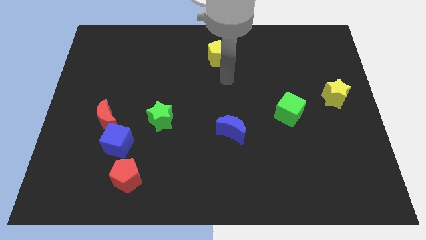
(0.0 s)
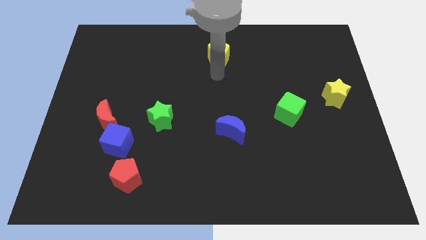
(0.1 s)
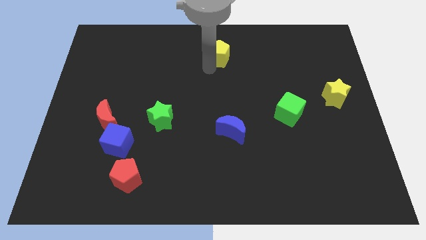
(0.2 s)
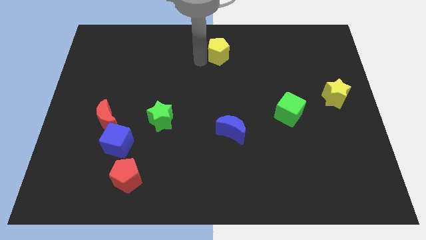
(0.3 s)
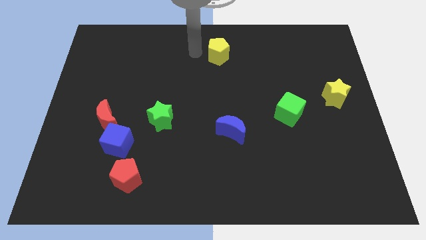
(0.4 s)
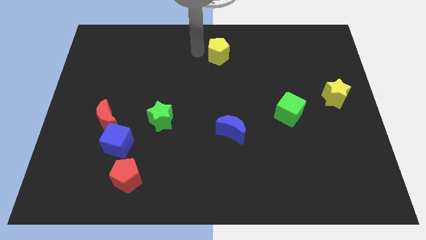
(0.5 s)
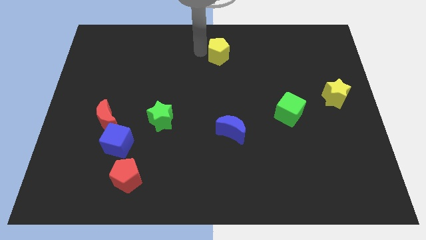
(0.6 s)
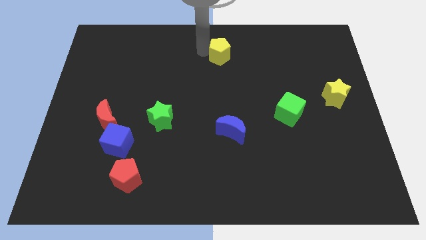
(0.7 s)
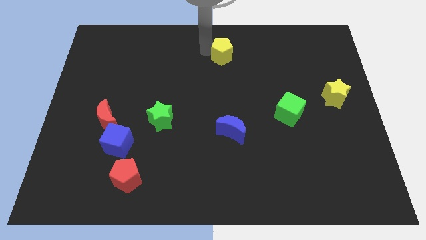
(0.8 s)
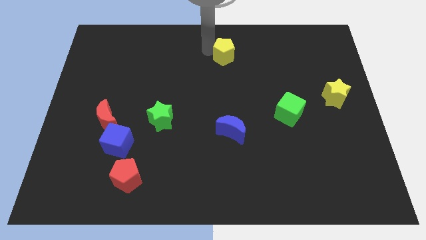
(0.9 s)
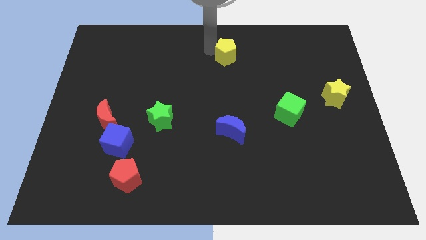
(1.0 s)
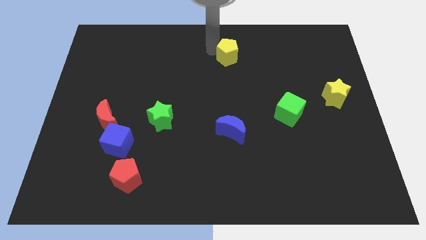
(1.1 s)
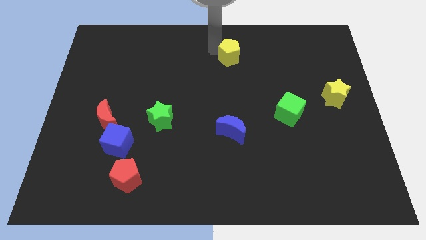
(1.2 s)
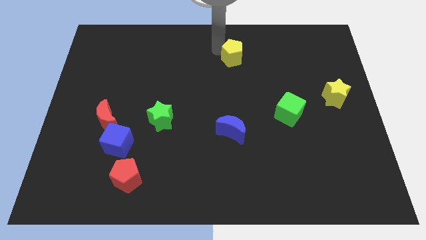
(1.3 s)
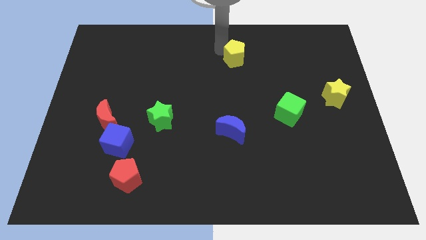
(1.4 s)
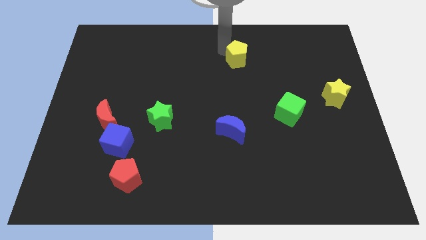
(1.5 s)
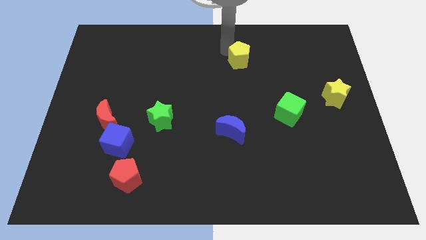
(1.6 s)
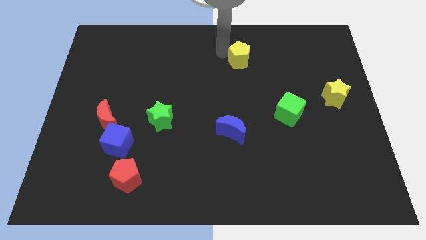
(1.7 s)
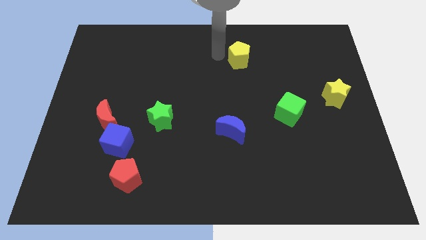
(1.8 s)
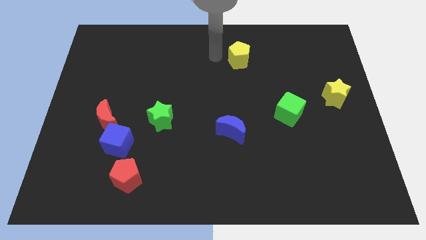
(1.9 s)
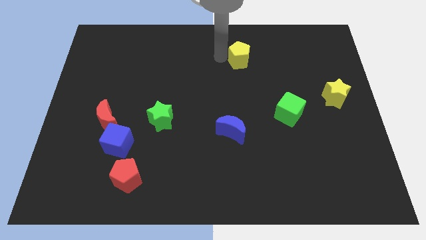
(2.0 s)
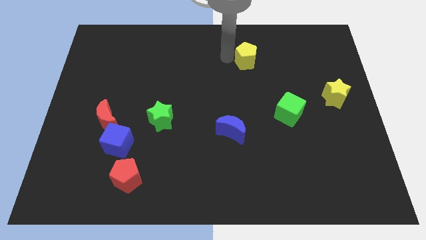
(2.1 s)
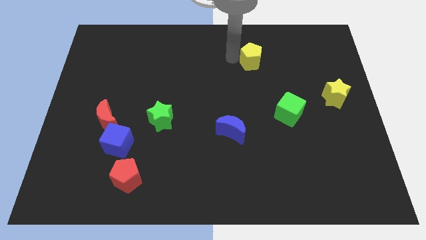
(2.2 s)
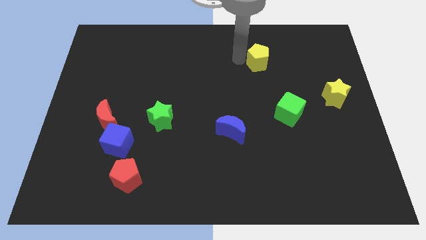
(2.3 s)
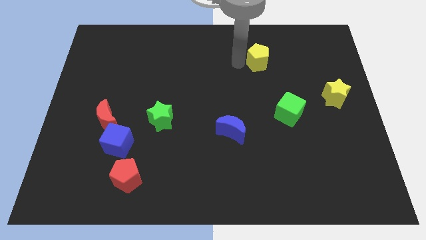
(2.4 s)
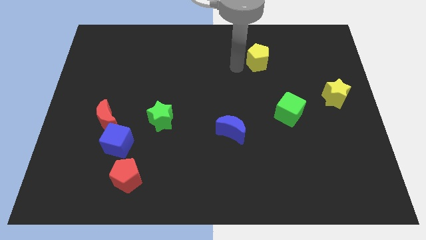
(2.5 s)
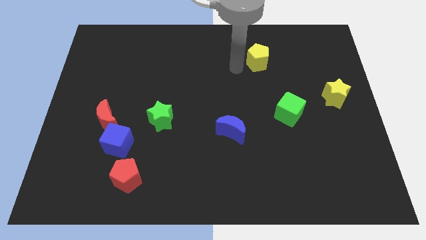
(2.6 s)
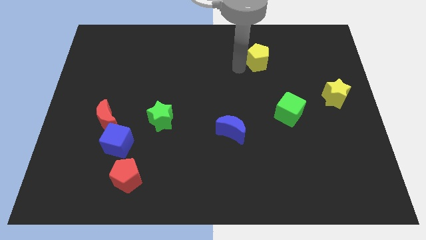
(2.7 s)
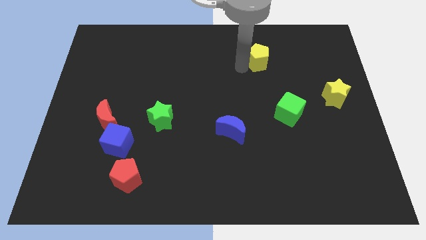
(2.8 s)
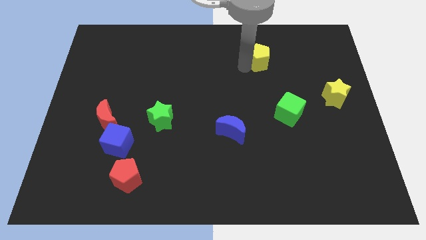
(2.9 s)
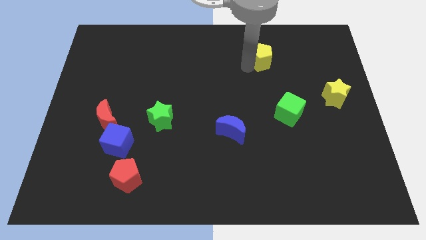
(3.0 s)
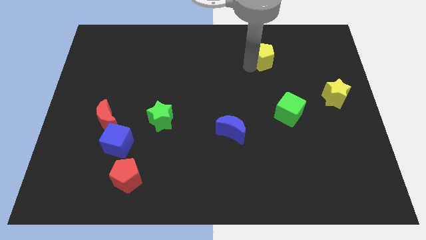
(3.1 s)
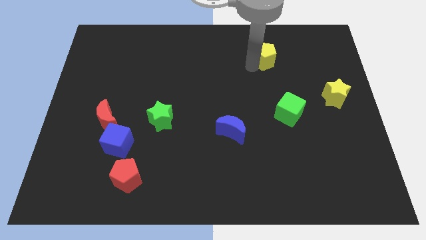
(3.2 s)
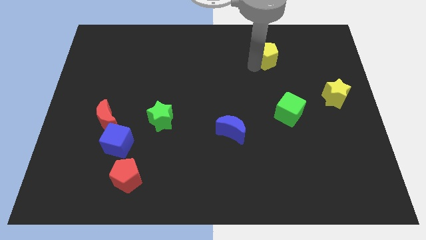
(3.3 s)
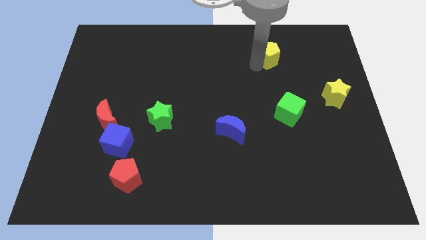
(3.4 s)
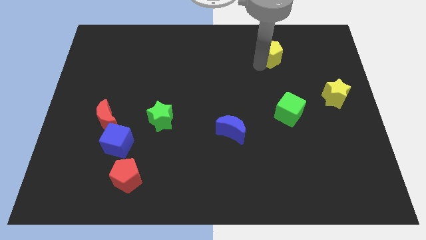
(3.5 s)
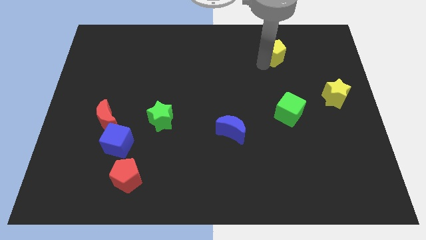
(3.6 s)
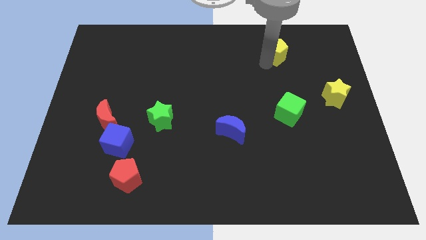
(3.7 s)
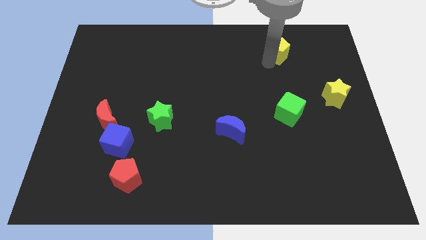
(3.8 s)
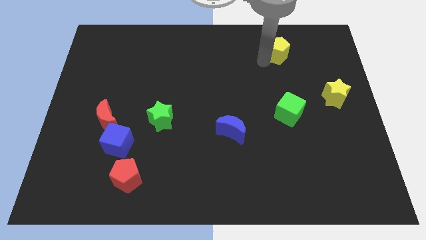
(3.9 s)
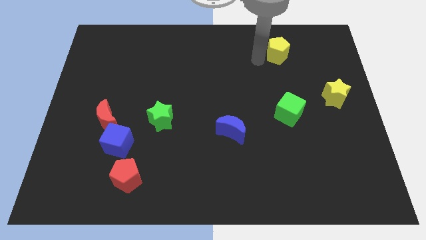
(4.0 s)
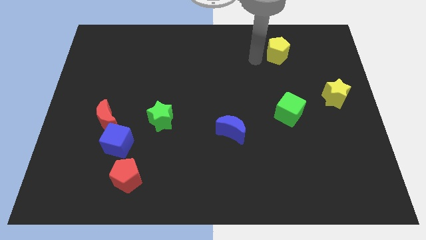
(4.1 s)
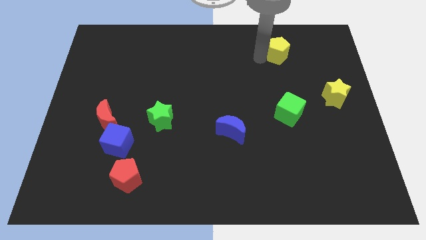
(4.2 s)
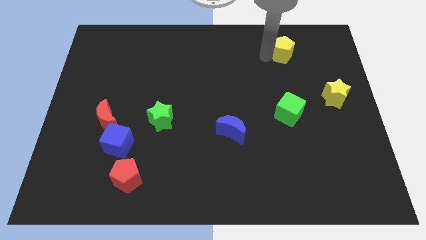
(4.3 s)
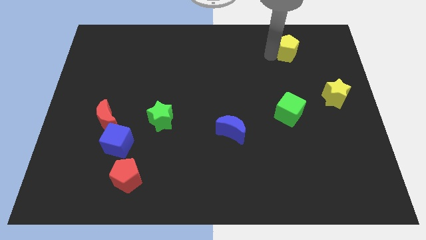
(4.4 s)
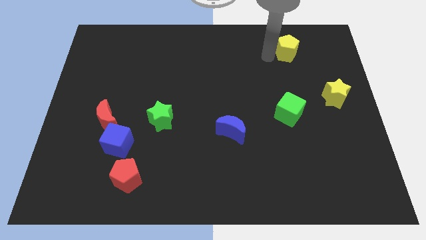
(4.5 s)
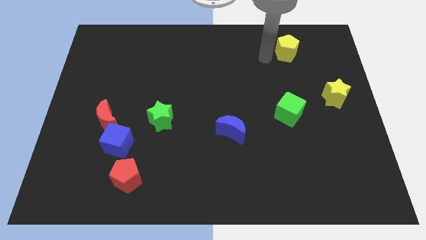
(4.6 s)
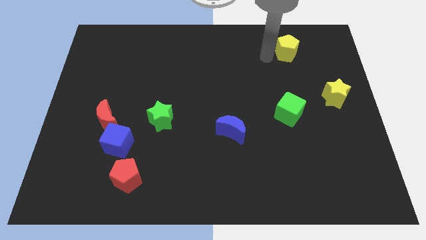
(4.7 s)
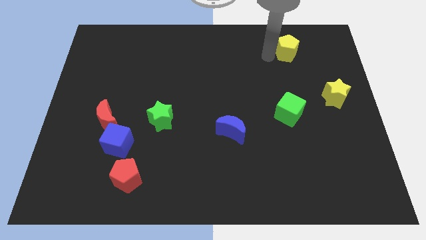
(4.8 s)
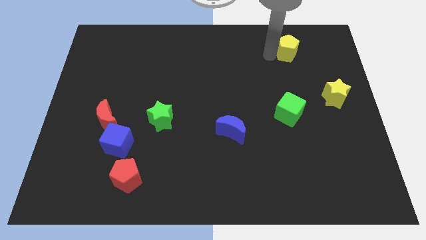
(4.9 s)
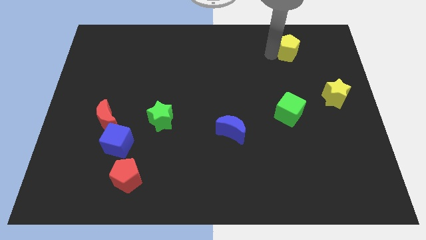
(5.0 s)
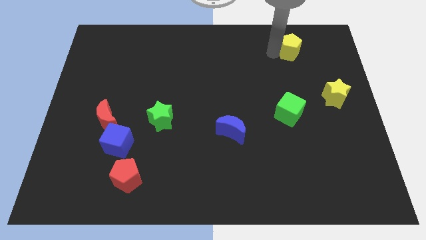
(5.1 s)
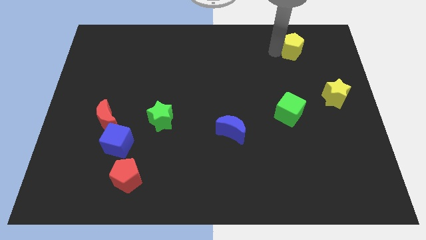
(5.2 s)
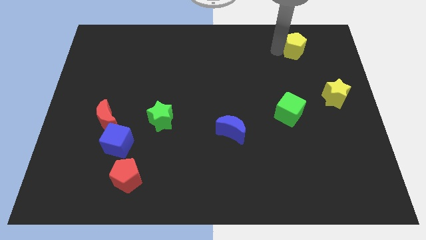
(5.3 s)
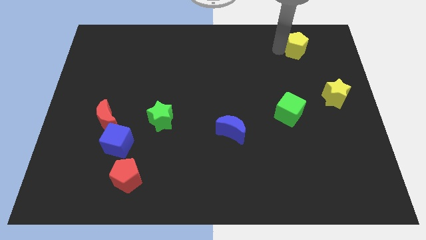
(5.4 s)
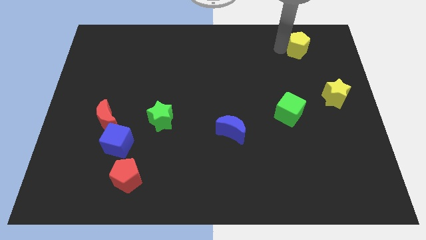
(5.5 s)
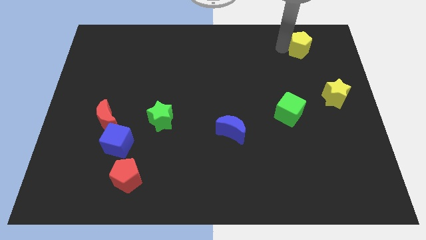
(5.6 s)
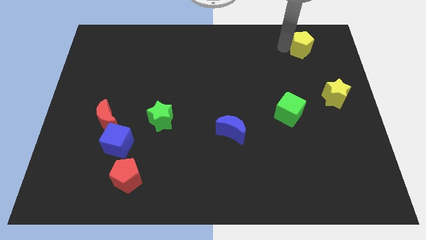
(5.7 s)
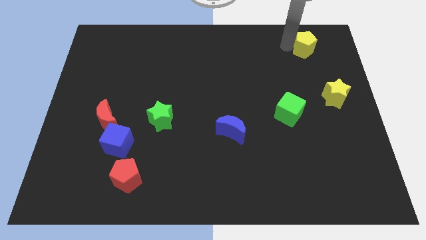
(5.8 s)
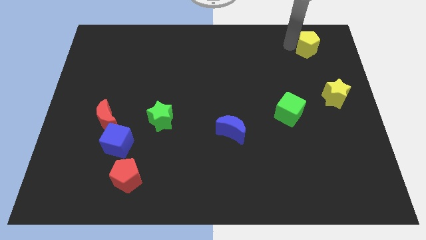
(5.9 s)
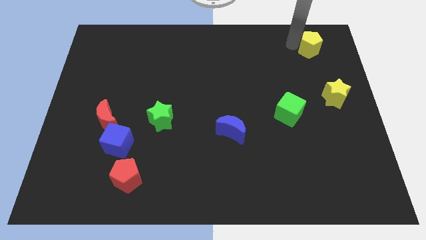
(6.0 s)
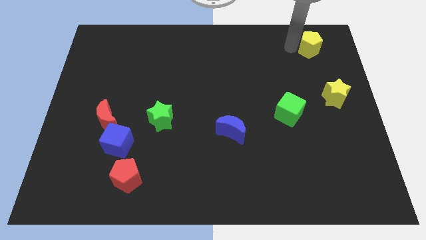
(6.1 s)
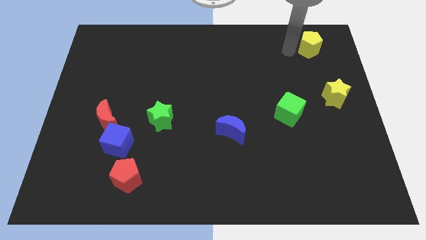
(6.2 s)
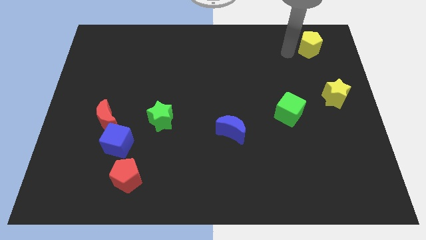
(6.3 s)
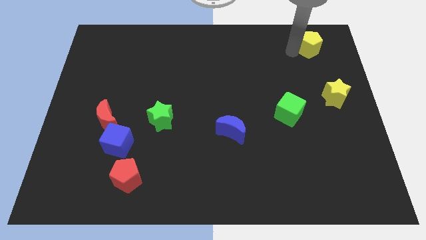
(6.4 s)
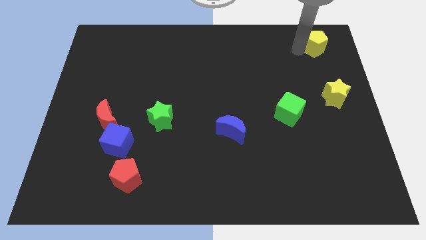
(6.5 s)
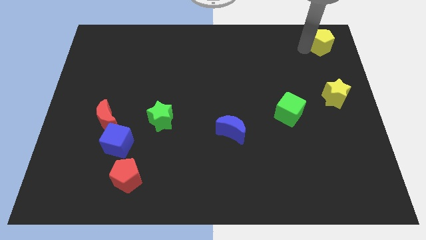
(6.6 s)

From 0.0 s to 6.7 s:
put the yellow pentagon to the top right corner
